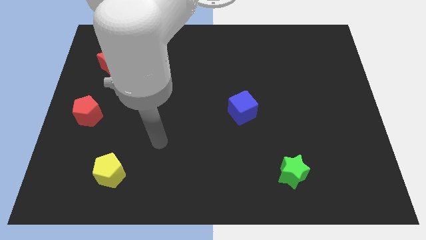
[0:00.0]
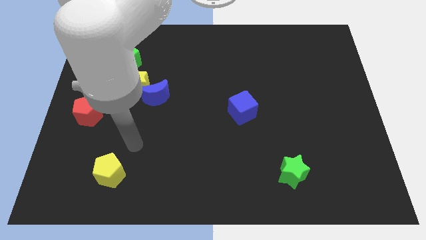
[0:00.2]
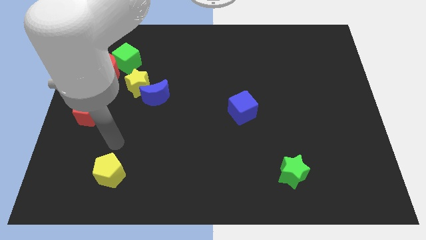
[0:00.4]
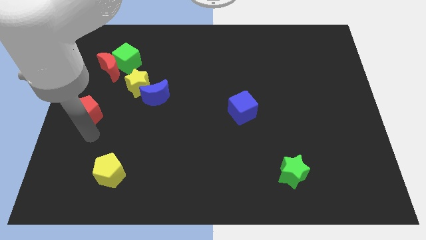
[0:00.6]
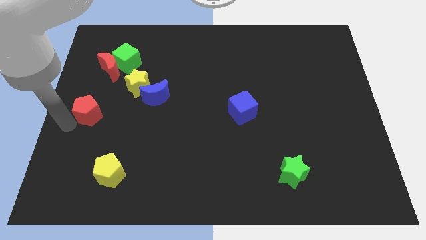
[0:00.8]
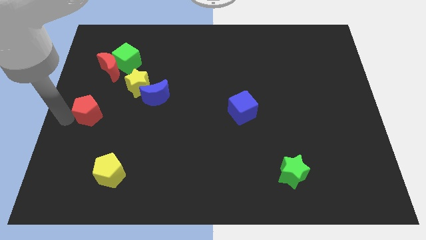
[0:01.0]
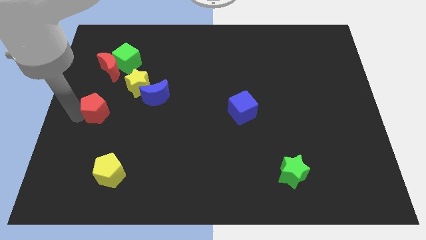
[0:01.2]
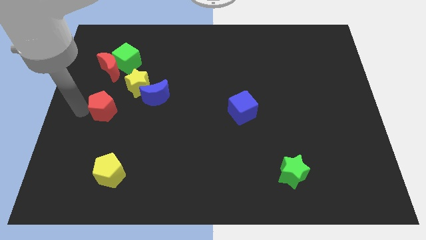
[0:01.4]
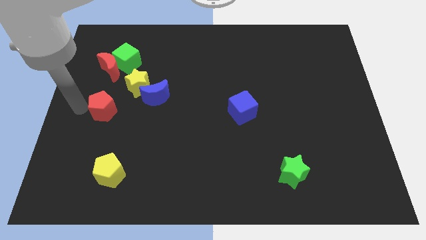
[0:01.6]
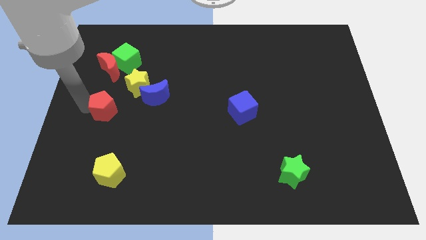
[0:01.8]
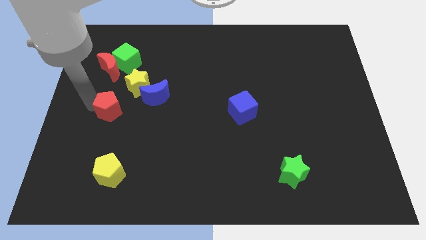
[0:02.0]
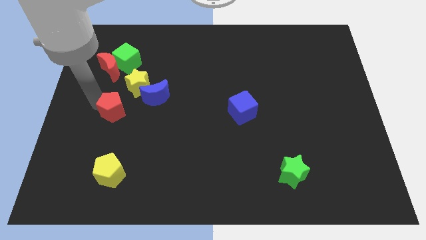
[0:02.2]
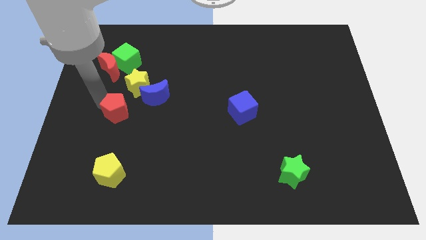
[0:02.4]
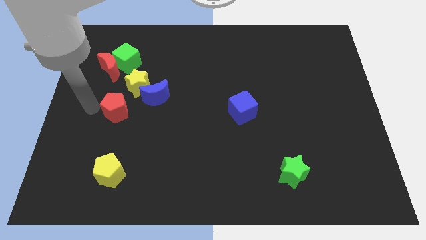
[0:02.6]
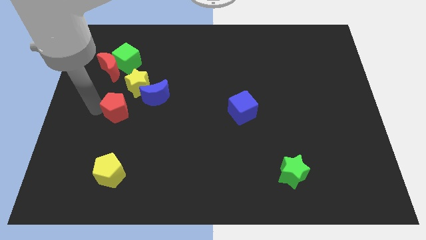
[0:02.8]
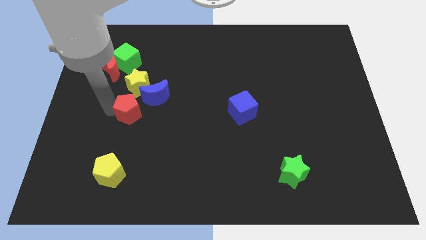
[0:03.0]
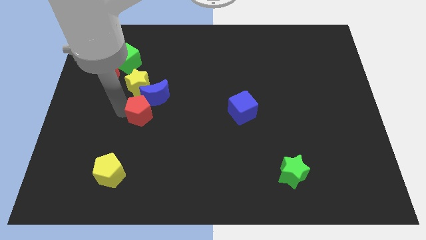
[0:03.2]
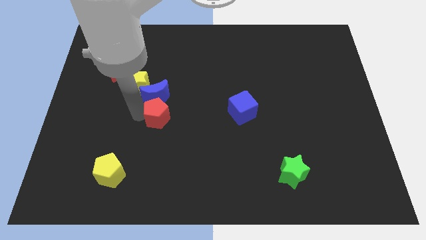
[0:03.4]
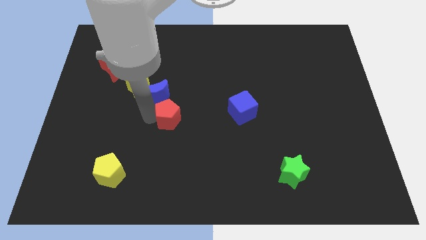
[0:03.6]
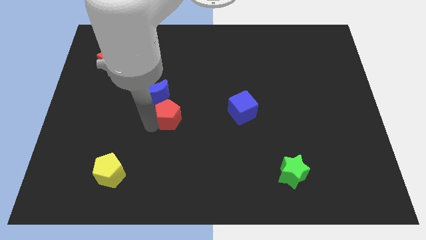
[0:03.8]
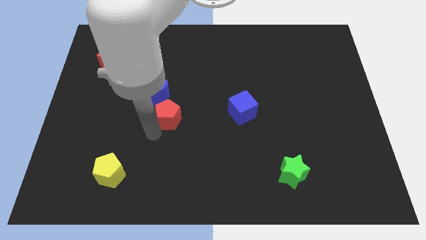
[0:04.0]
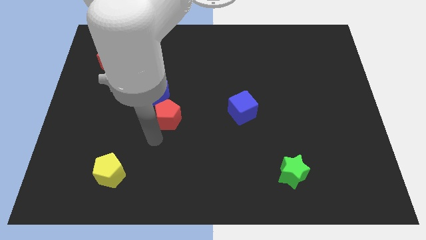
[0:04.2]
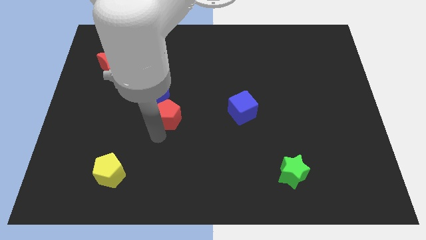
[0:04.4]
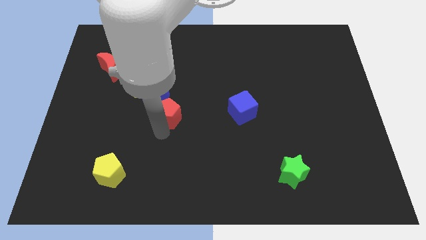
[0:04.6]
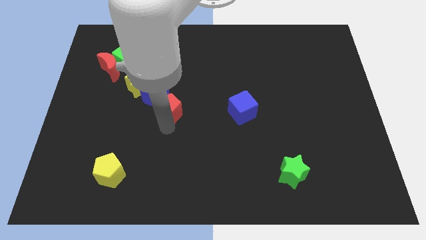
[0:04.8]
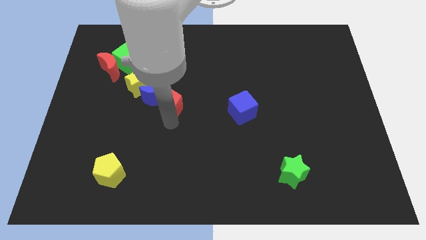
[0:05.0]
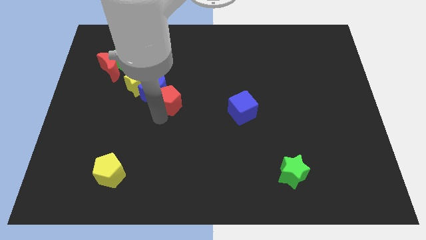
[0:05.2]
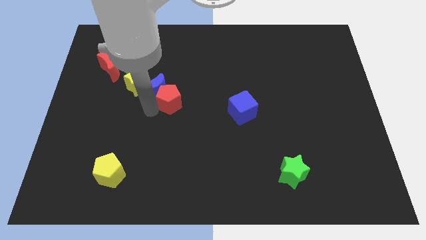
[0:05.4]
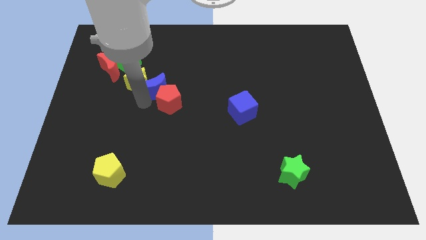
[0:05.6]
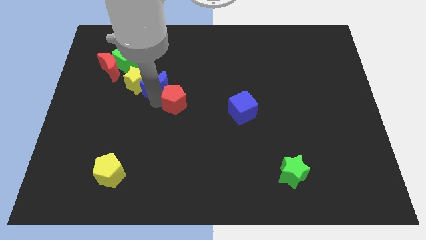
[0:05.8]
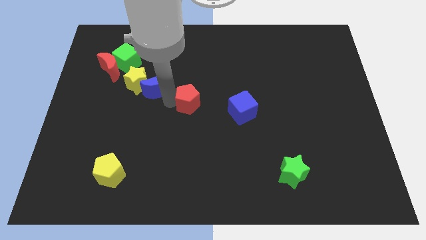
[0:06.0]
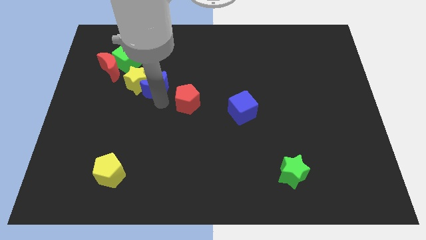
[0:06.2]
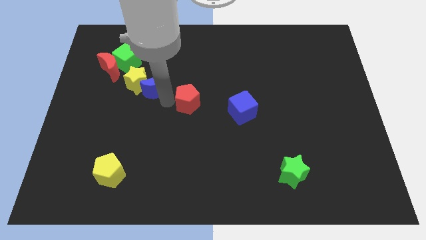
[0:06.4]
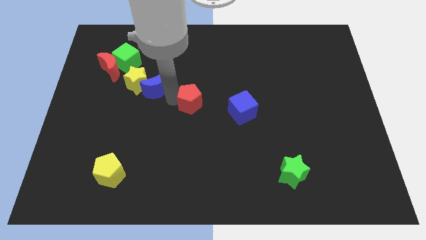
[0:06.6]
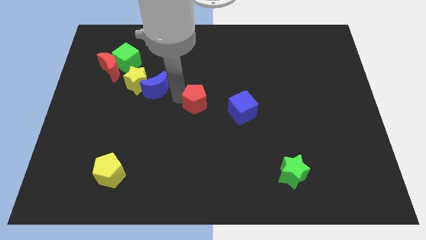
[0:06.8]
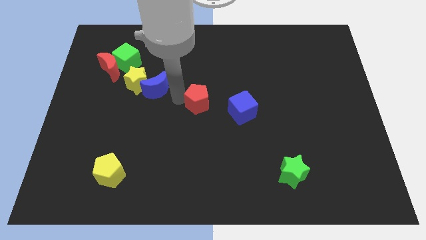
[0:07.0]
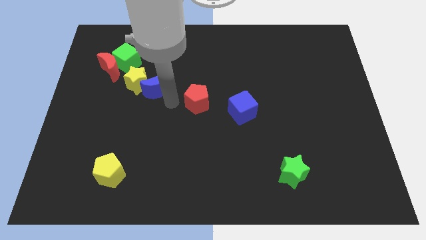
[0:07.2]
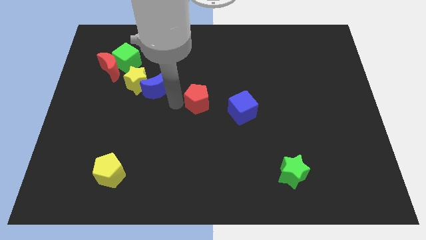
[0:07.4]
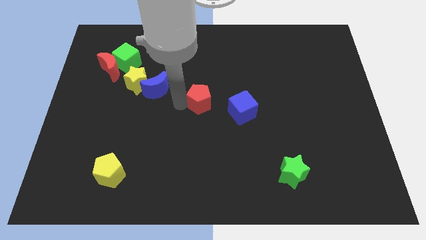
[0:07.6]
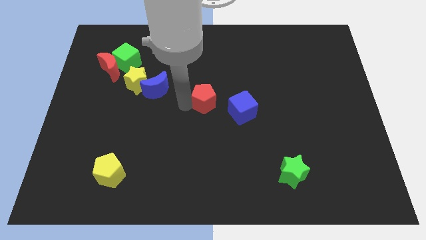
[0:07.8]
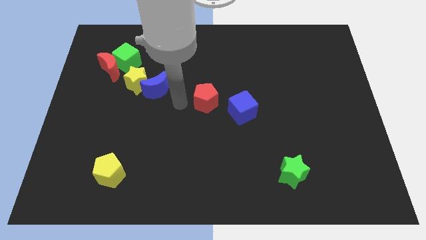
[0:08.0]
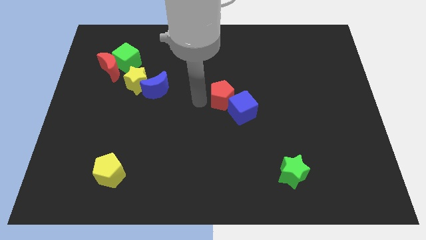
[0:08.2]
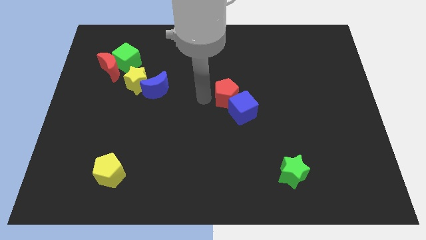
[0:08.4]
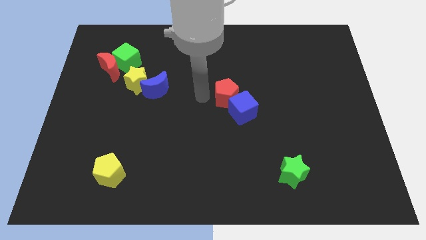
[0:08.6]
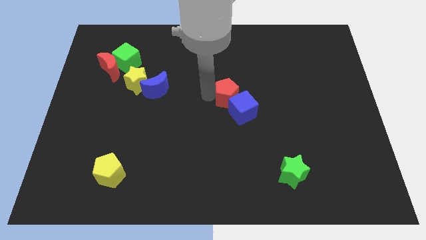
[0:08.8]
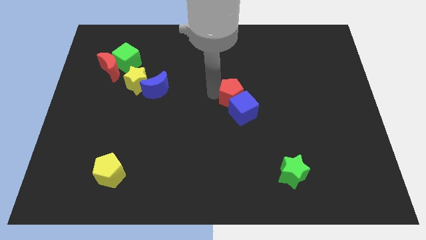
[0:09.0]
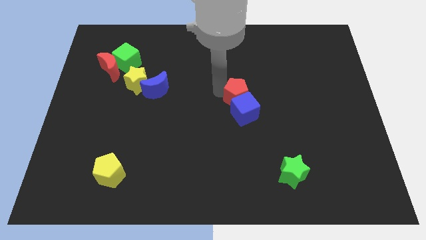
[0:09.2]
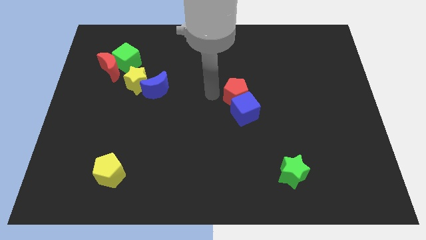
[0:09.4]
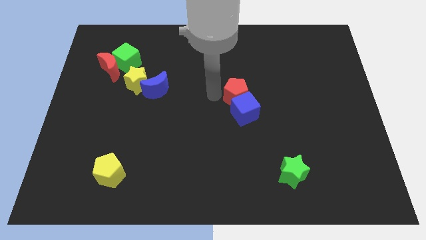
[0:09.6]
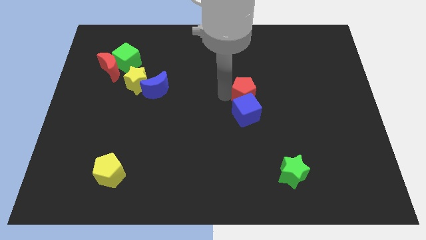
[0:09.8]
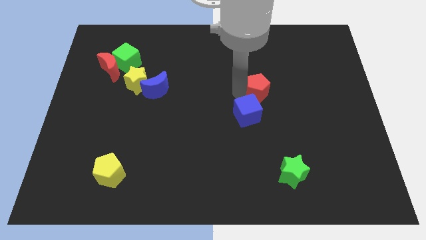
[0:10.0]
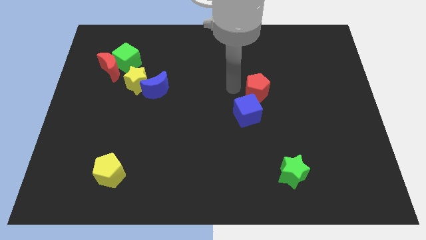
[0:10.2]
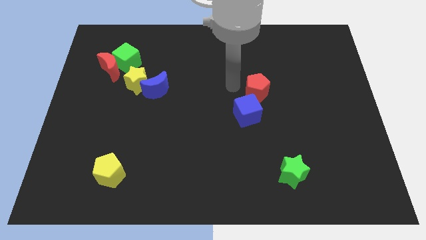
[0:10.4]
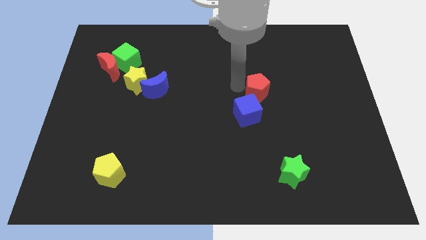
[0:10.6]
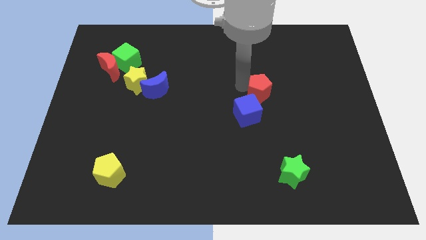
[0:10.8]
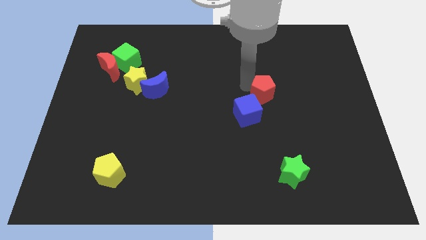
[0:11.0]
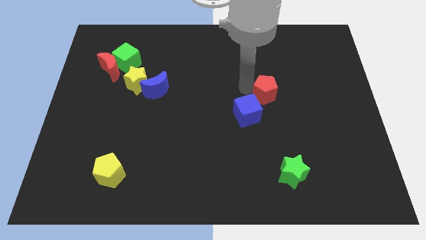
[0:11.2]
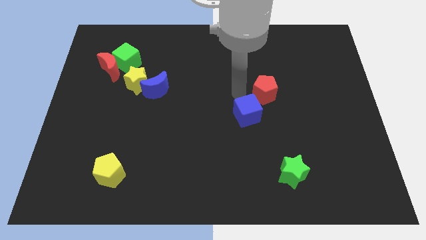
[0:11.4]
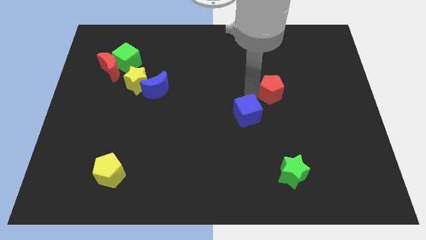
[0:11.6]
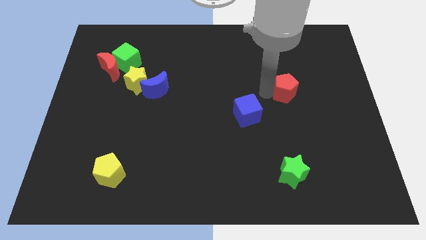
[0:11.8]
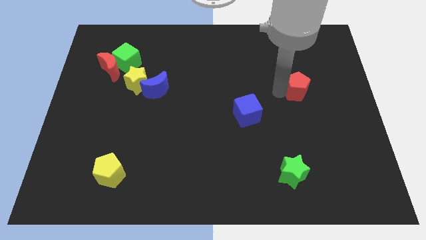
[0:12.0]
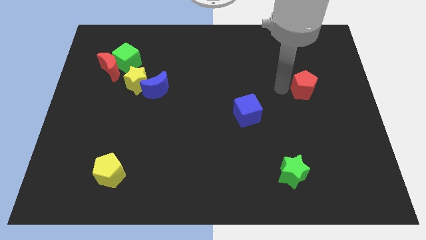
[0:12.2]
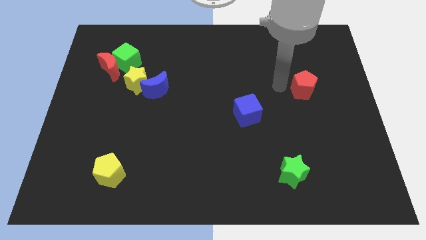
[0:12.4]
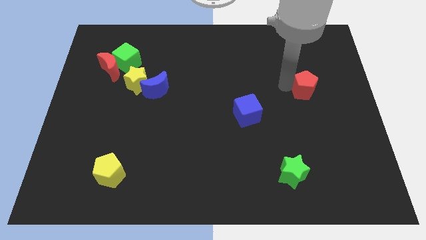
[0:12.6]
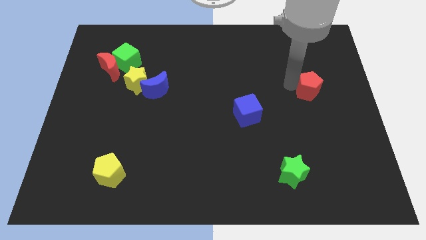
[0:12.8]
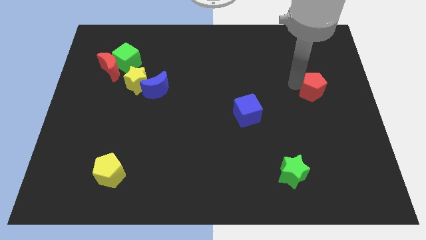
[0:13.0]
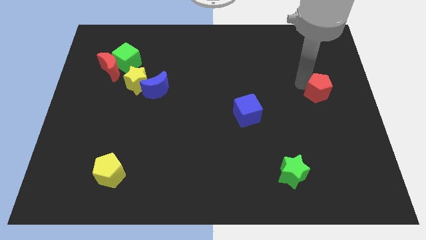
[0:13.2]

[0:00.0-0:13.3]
slide the red pentagon to the right side of the board
